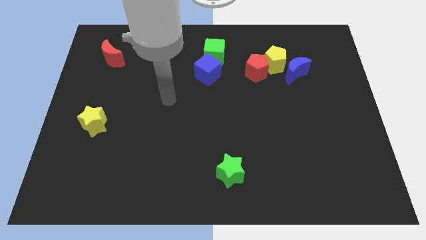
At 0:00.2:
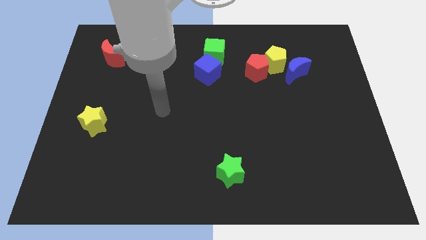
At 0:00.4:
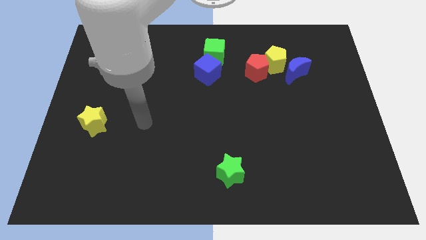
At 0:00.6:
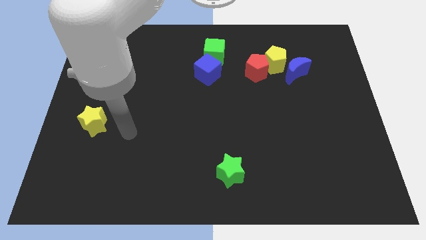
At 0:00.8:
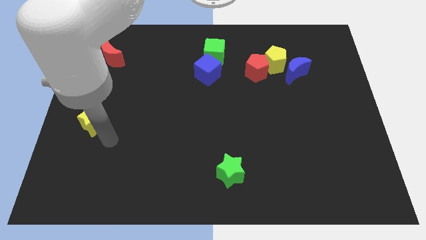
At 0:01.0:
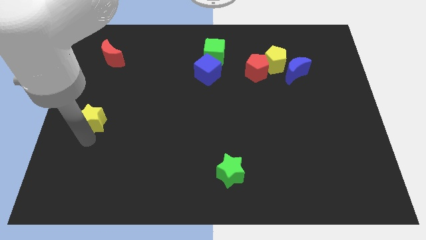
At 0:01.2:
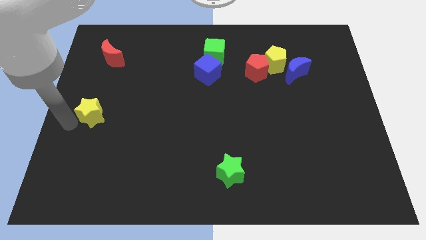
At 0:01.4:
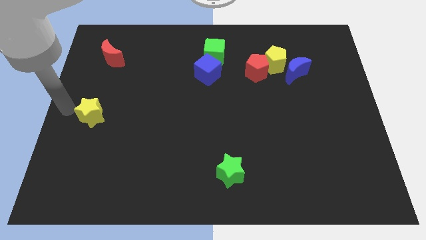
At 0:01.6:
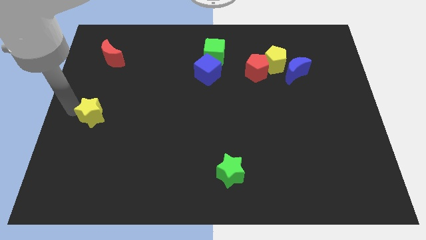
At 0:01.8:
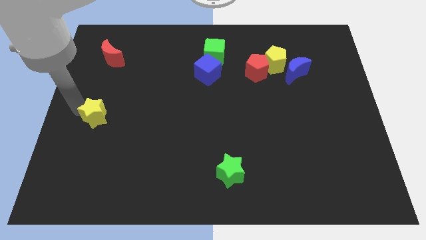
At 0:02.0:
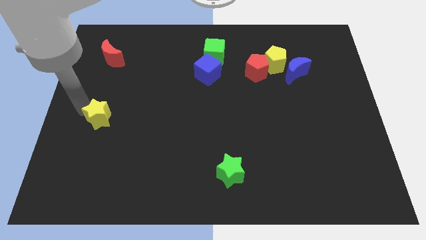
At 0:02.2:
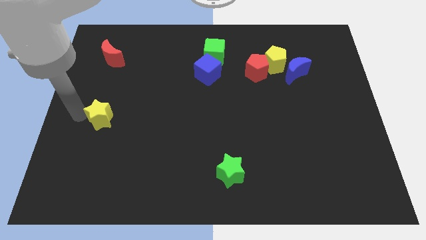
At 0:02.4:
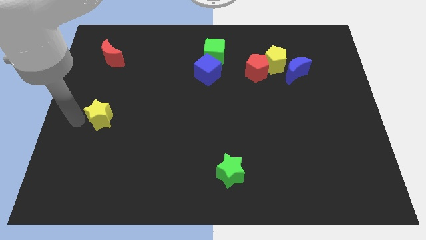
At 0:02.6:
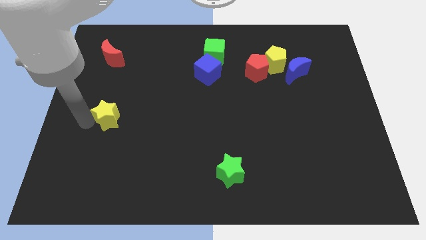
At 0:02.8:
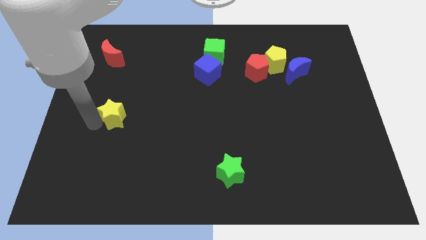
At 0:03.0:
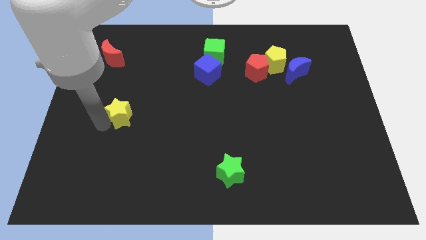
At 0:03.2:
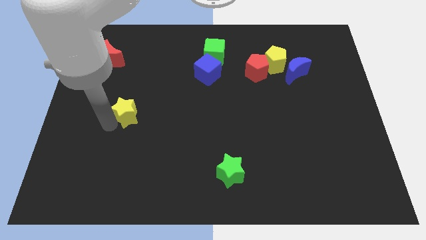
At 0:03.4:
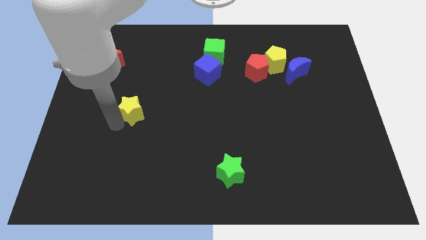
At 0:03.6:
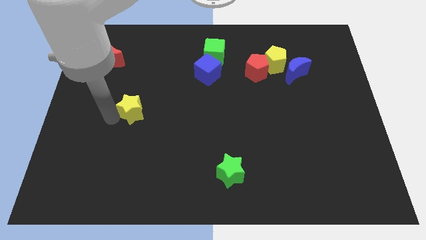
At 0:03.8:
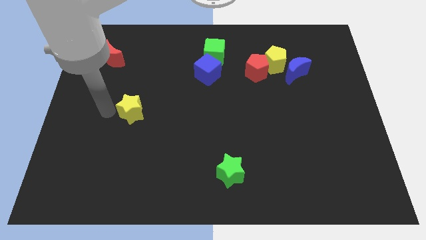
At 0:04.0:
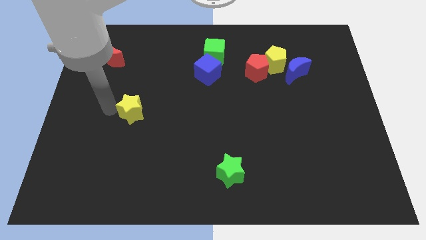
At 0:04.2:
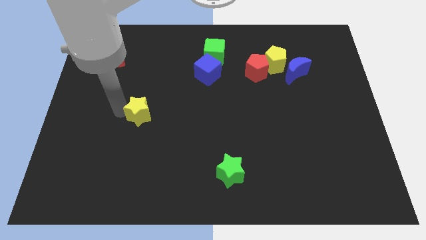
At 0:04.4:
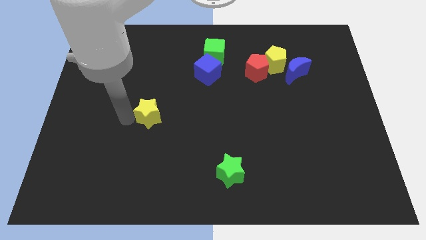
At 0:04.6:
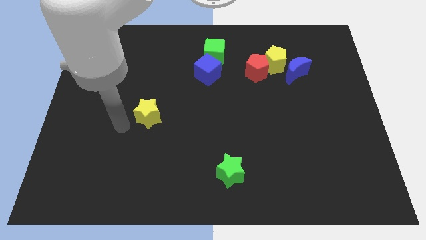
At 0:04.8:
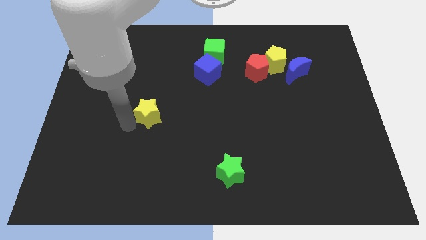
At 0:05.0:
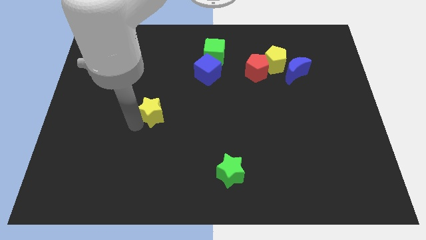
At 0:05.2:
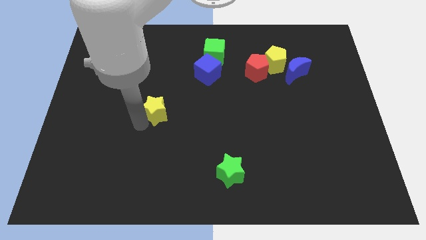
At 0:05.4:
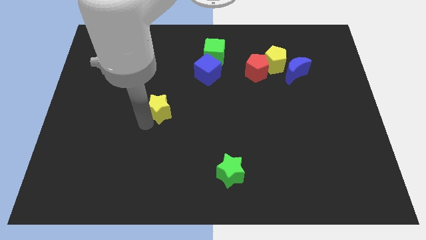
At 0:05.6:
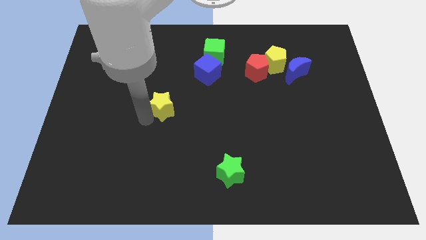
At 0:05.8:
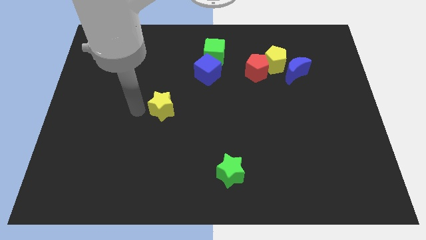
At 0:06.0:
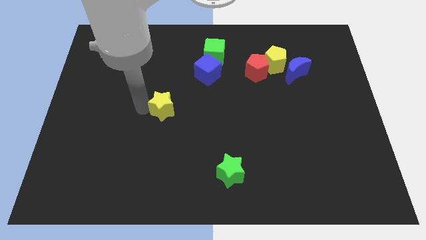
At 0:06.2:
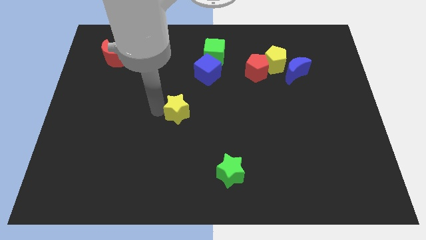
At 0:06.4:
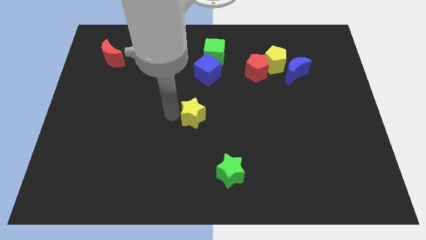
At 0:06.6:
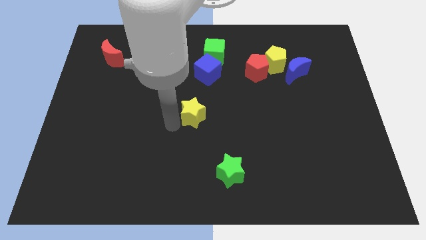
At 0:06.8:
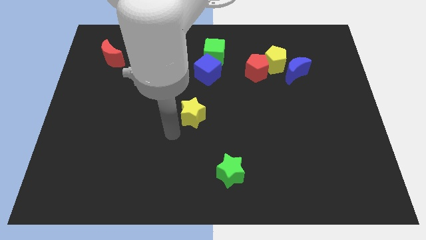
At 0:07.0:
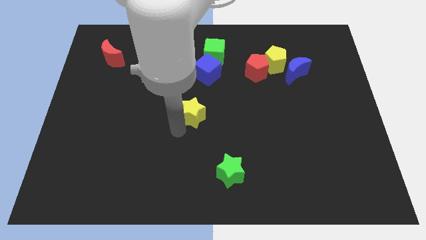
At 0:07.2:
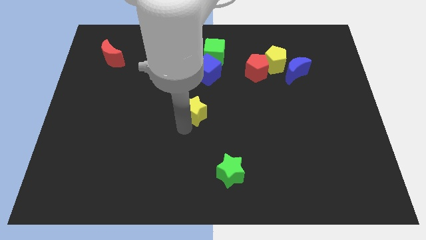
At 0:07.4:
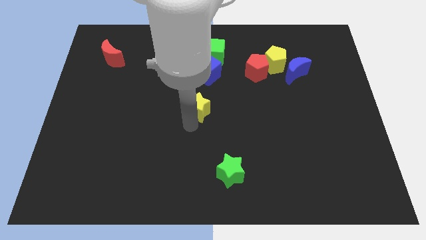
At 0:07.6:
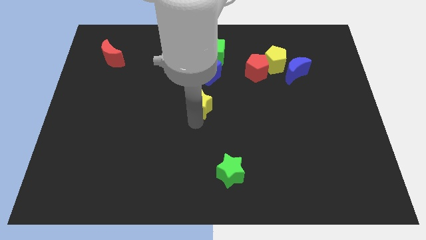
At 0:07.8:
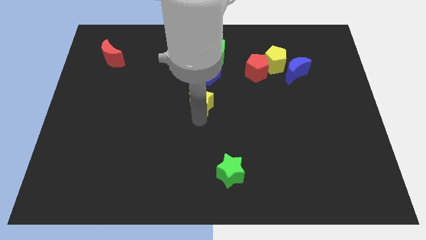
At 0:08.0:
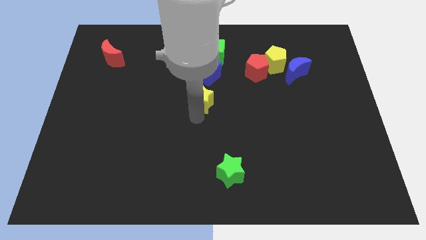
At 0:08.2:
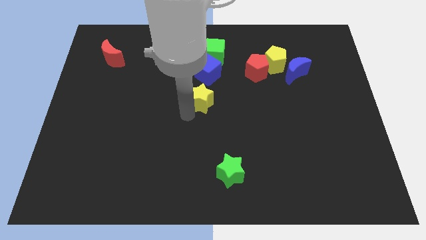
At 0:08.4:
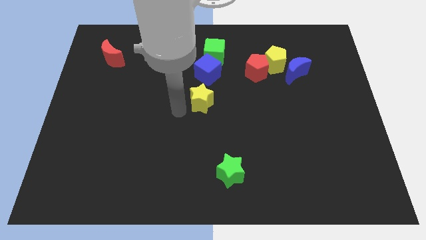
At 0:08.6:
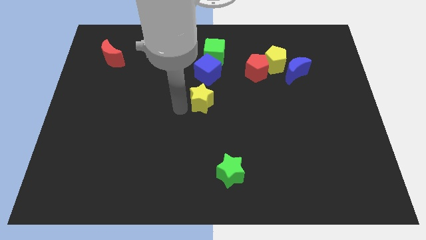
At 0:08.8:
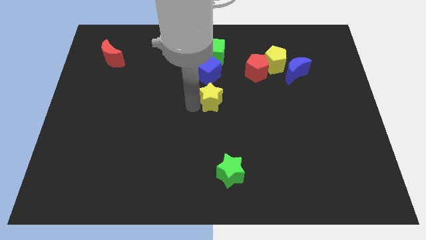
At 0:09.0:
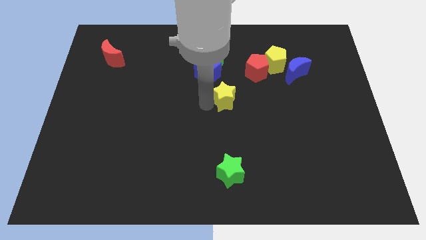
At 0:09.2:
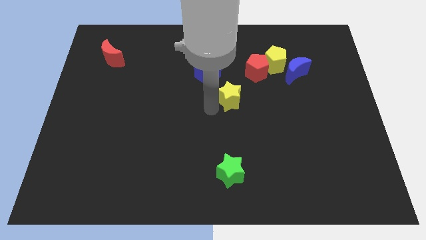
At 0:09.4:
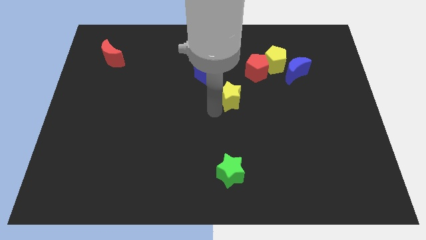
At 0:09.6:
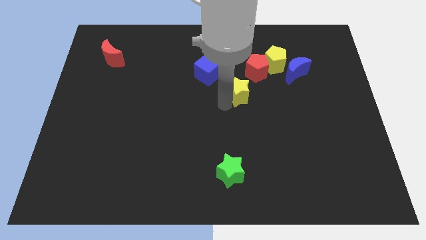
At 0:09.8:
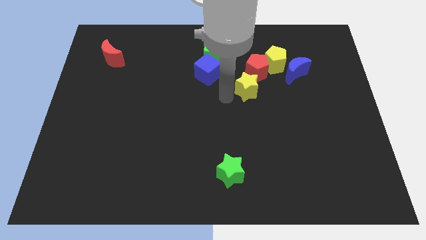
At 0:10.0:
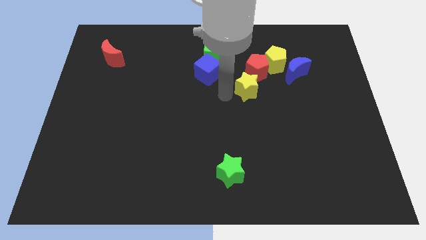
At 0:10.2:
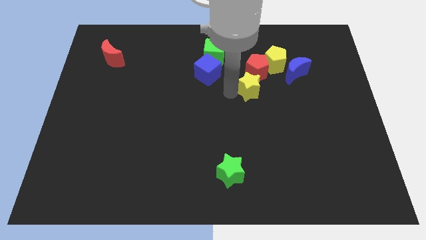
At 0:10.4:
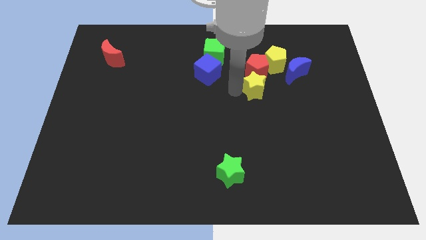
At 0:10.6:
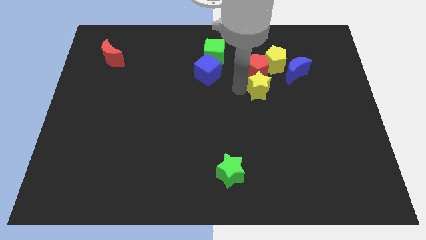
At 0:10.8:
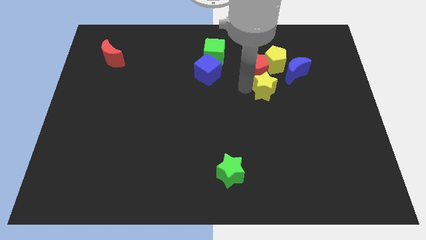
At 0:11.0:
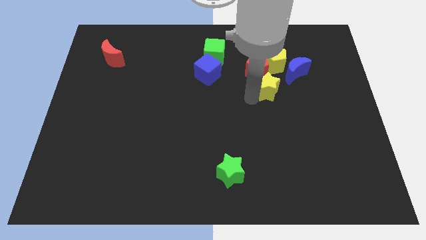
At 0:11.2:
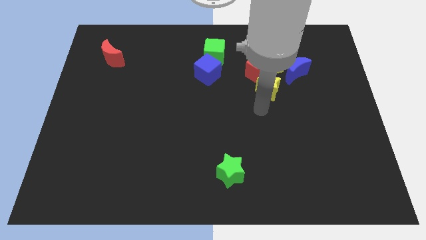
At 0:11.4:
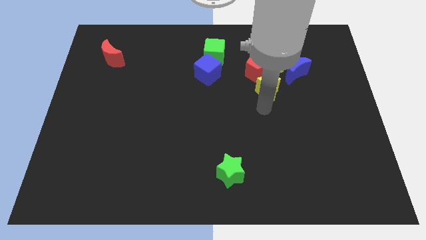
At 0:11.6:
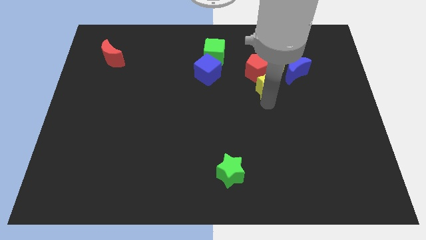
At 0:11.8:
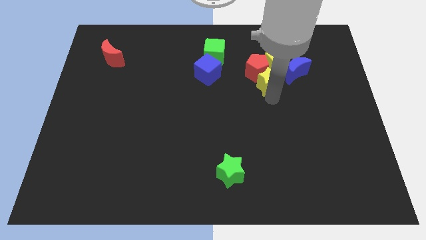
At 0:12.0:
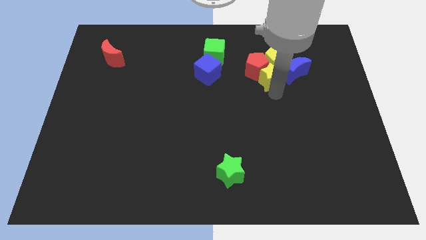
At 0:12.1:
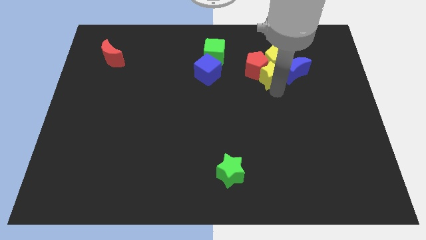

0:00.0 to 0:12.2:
push the yellow star next to the yellow pentagon

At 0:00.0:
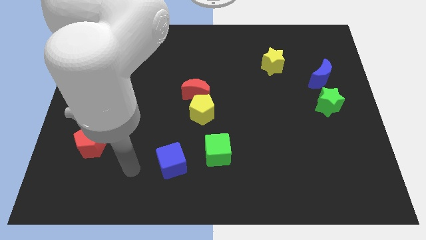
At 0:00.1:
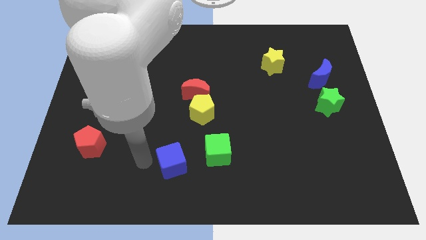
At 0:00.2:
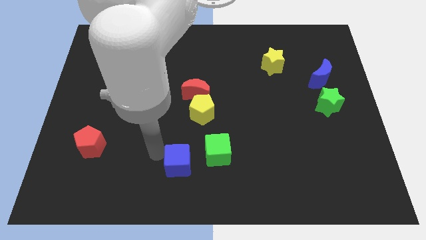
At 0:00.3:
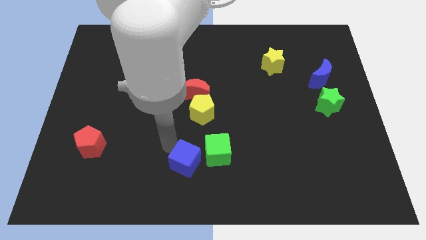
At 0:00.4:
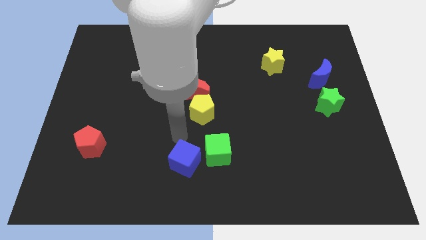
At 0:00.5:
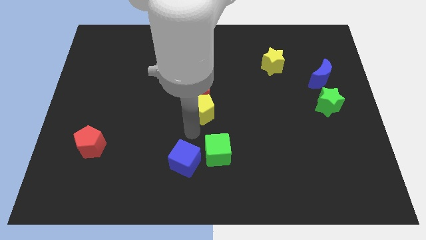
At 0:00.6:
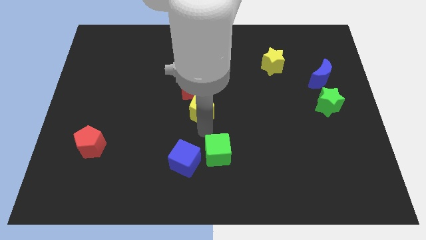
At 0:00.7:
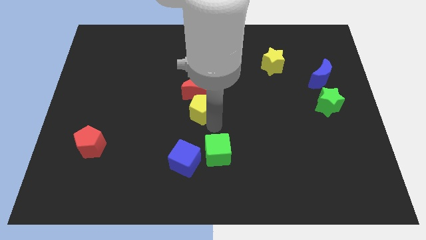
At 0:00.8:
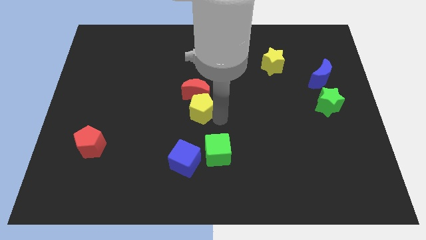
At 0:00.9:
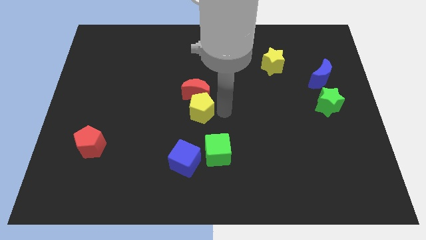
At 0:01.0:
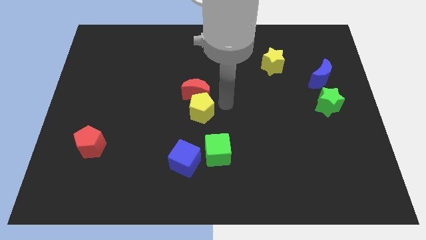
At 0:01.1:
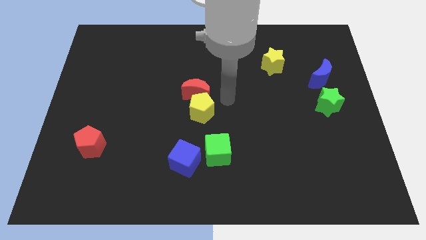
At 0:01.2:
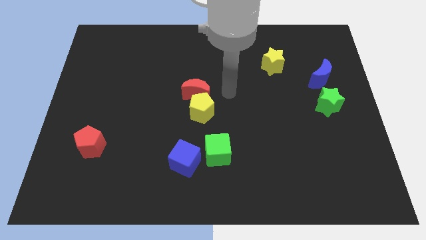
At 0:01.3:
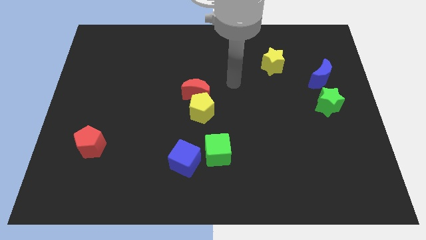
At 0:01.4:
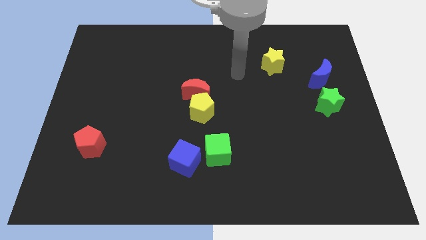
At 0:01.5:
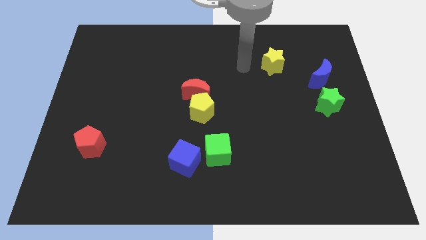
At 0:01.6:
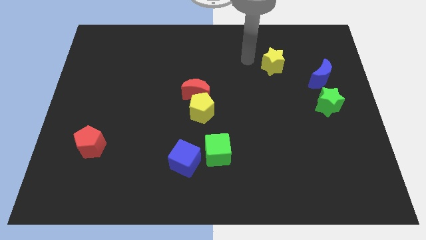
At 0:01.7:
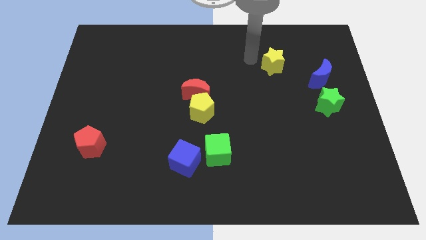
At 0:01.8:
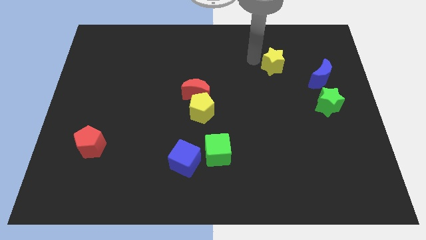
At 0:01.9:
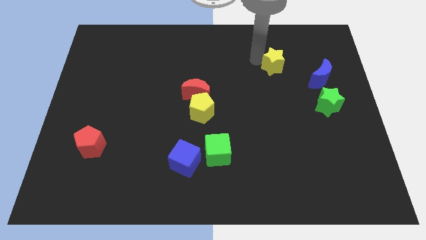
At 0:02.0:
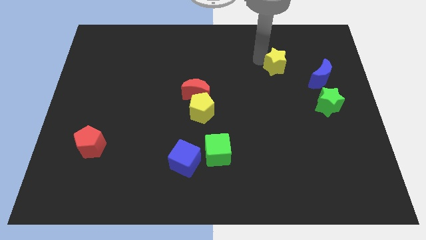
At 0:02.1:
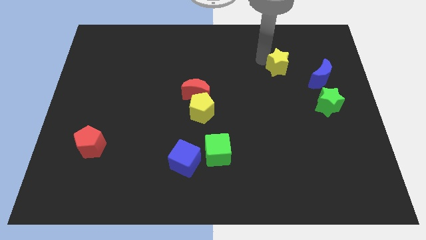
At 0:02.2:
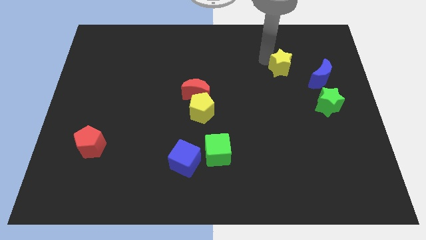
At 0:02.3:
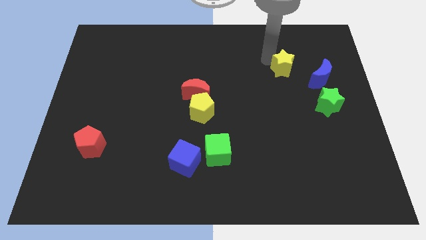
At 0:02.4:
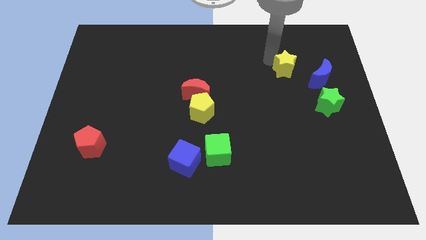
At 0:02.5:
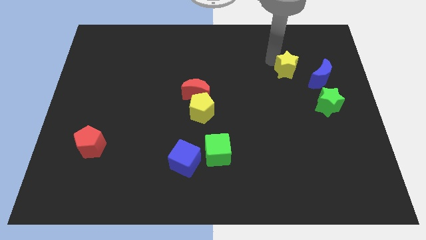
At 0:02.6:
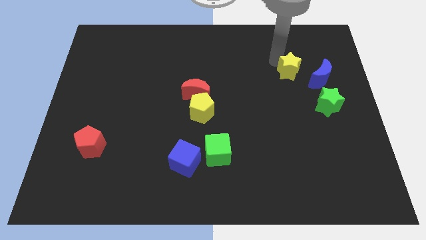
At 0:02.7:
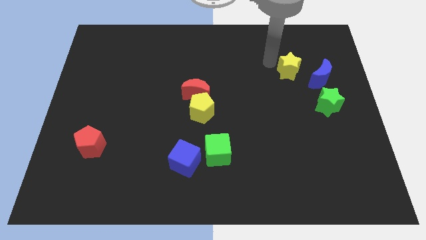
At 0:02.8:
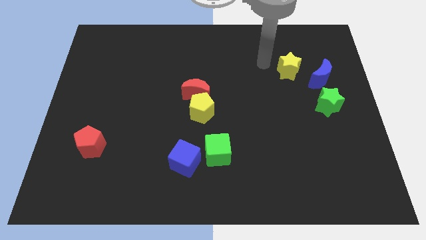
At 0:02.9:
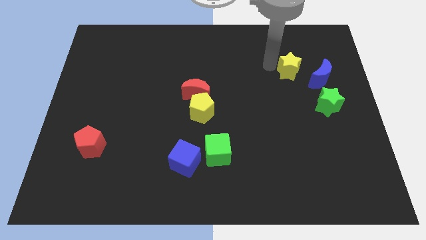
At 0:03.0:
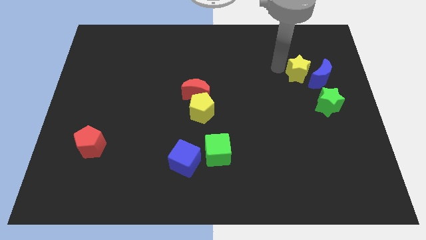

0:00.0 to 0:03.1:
slide the yellow star towards the blue moon
